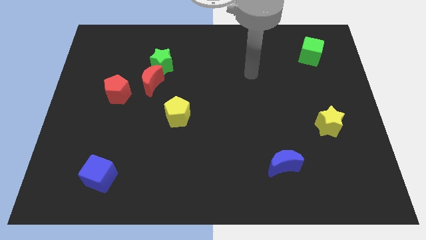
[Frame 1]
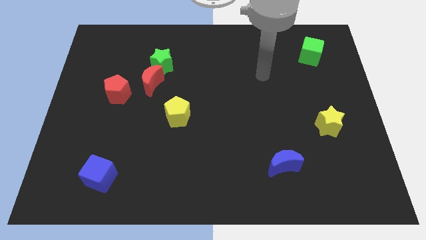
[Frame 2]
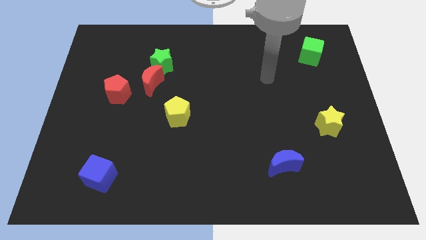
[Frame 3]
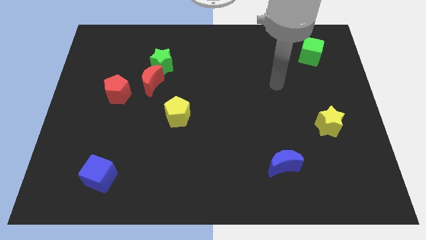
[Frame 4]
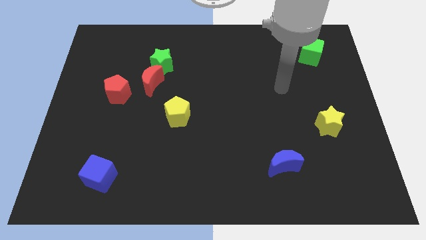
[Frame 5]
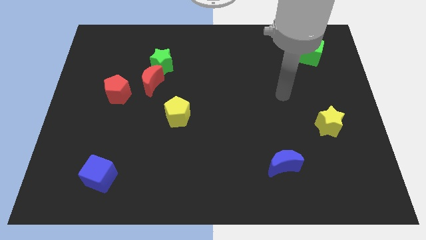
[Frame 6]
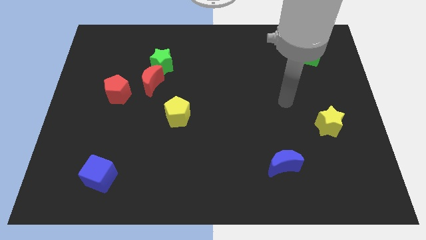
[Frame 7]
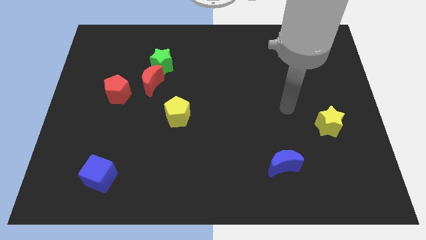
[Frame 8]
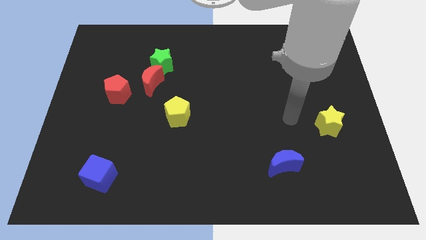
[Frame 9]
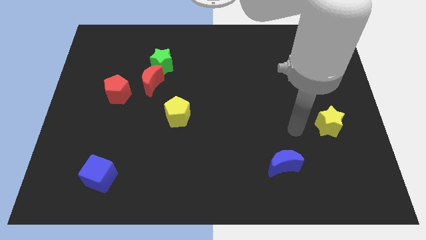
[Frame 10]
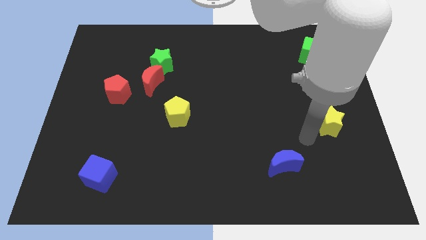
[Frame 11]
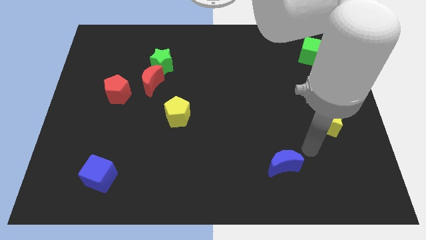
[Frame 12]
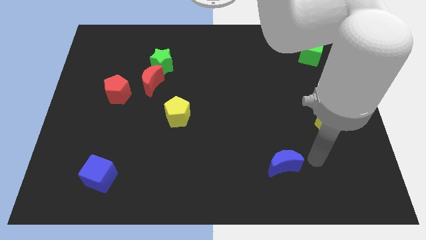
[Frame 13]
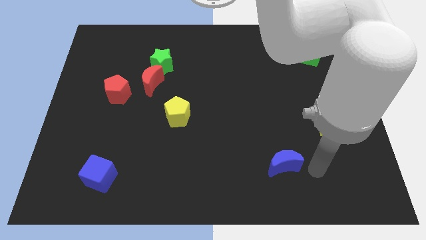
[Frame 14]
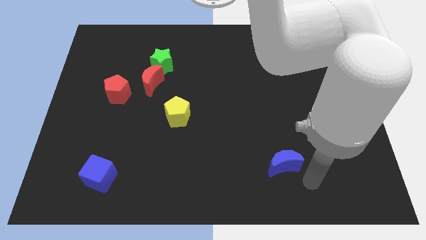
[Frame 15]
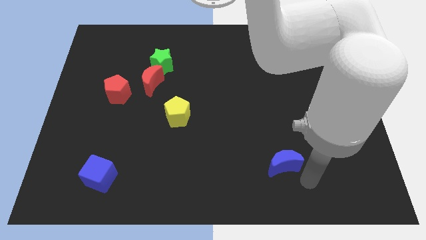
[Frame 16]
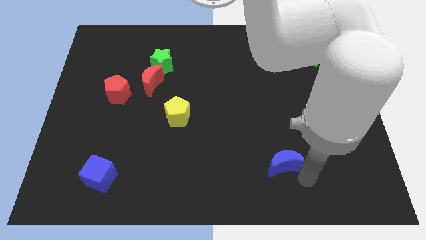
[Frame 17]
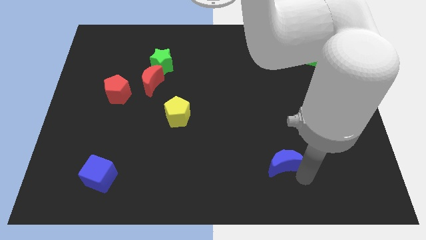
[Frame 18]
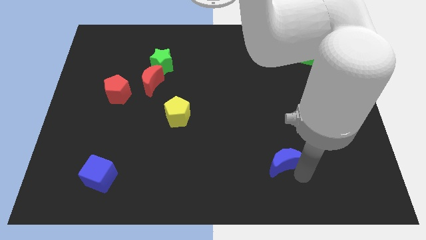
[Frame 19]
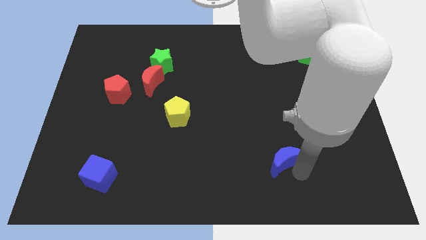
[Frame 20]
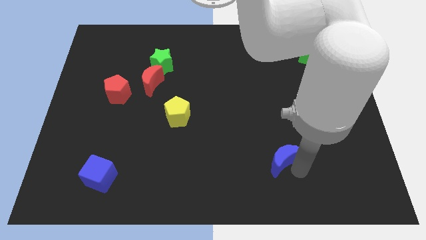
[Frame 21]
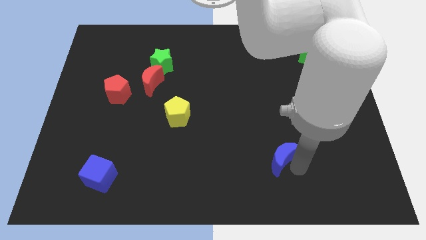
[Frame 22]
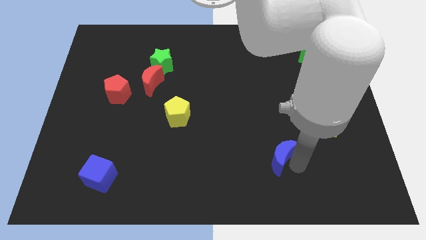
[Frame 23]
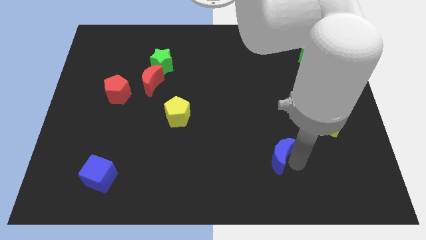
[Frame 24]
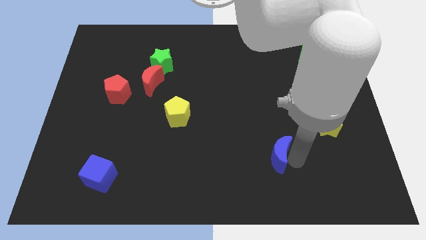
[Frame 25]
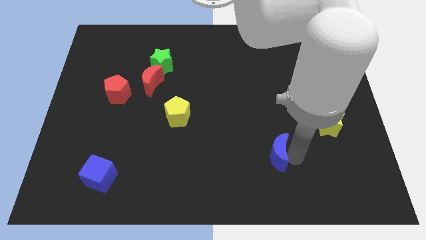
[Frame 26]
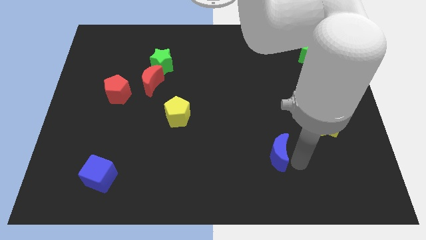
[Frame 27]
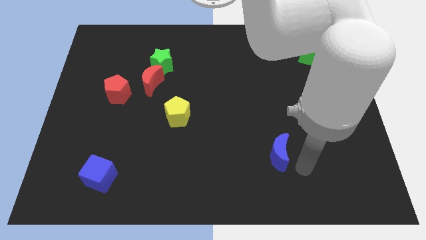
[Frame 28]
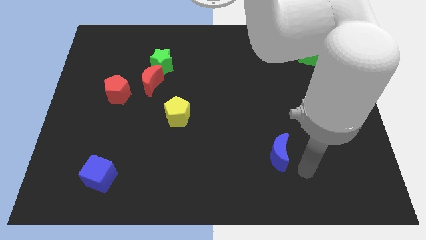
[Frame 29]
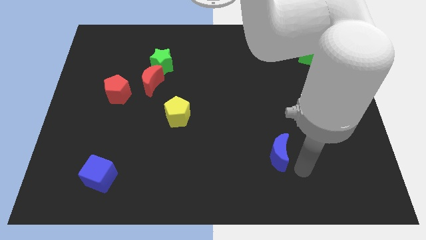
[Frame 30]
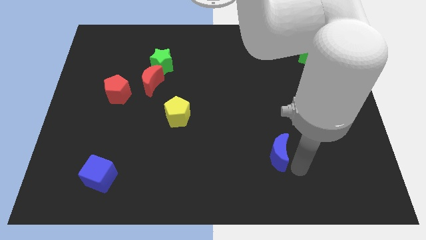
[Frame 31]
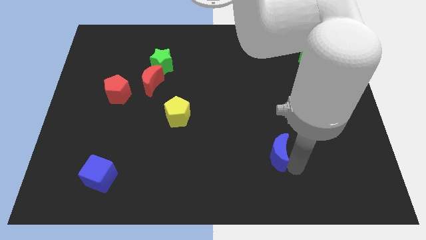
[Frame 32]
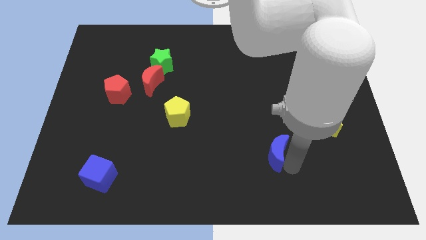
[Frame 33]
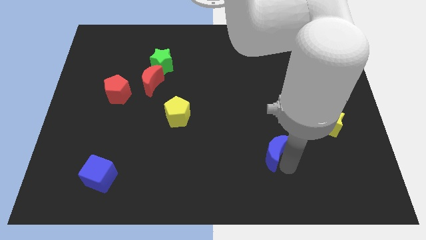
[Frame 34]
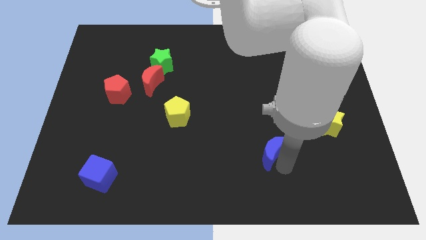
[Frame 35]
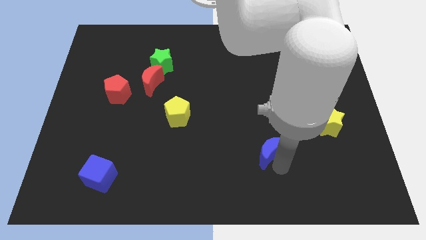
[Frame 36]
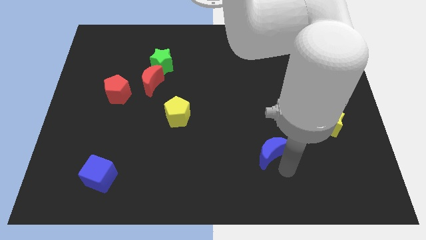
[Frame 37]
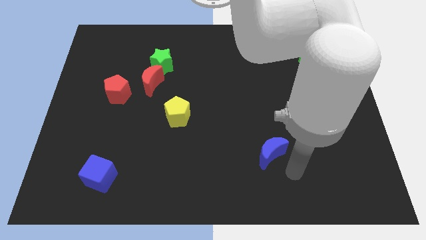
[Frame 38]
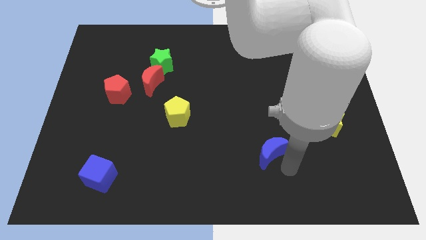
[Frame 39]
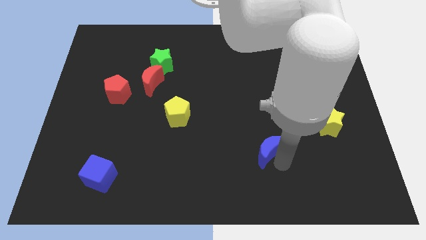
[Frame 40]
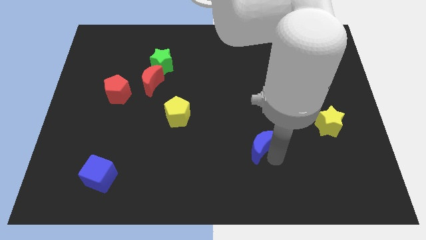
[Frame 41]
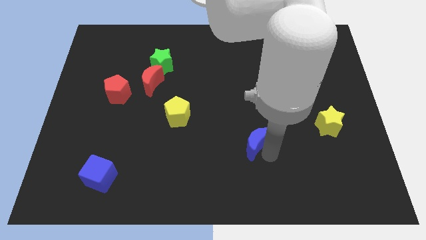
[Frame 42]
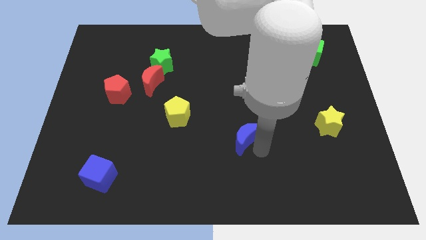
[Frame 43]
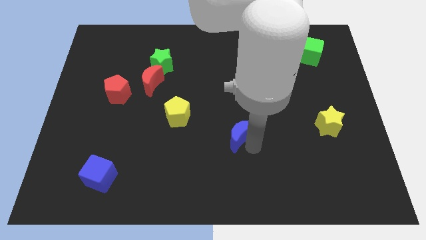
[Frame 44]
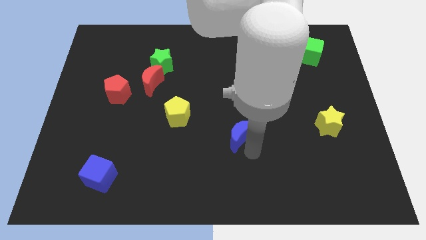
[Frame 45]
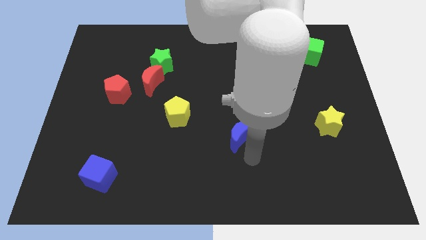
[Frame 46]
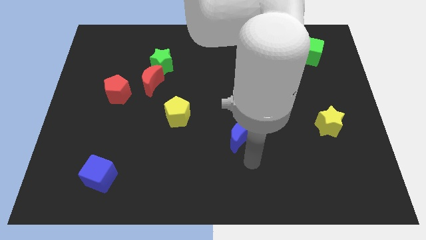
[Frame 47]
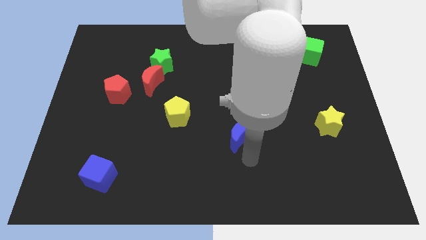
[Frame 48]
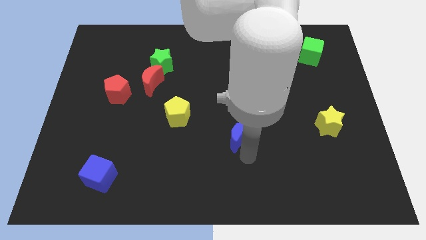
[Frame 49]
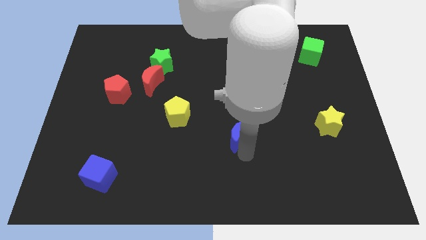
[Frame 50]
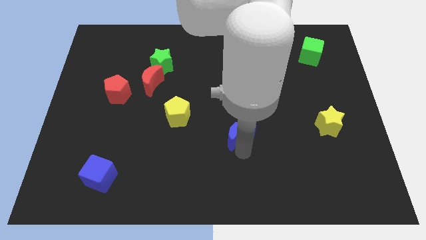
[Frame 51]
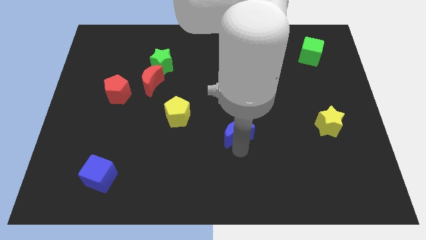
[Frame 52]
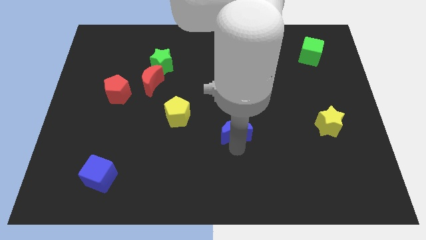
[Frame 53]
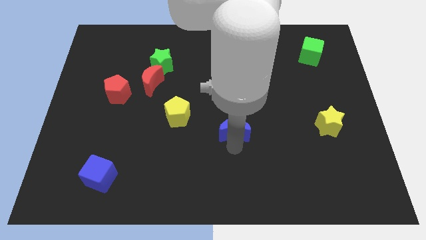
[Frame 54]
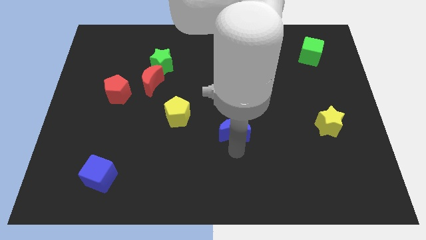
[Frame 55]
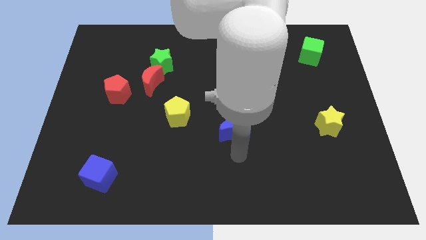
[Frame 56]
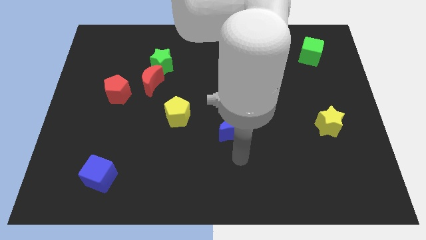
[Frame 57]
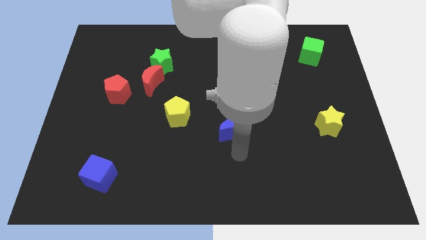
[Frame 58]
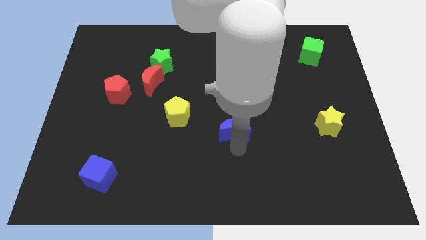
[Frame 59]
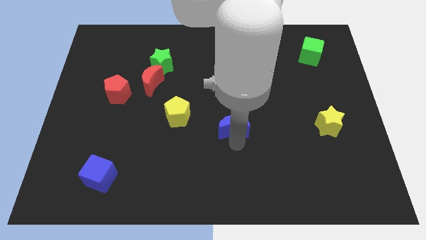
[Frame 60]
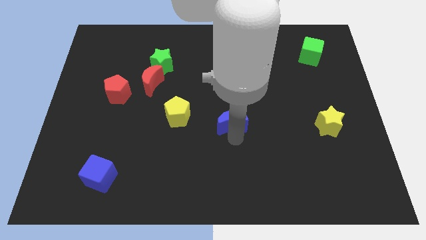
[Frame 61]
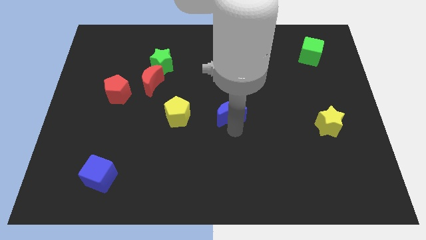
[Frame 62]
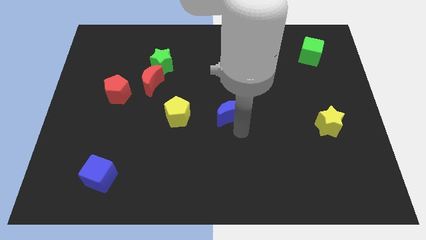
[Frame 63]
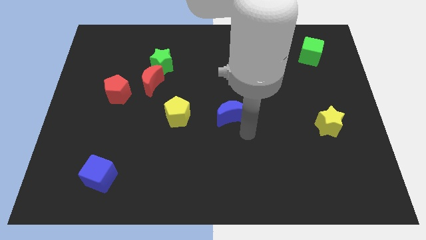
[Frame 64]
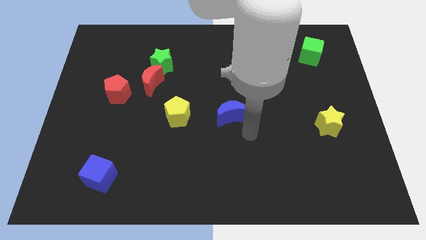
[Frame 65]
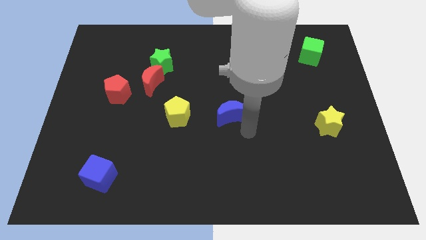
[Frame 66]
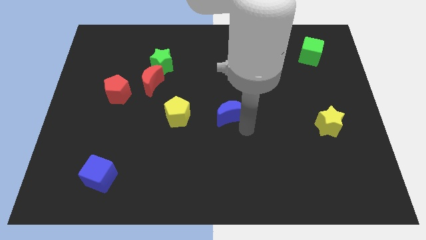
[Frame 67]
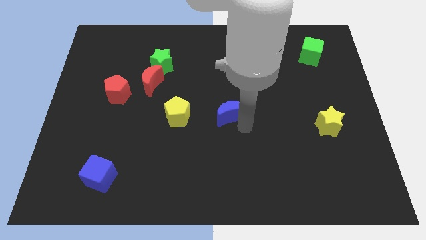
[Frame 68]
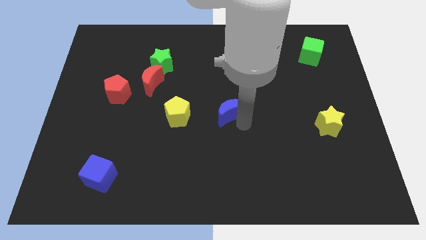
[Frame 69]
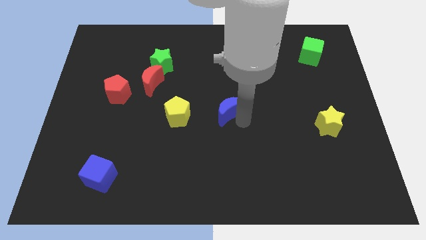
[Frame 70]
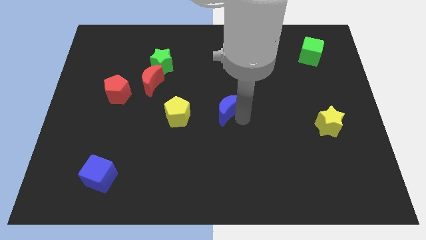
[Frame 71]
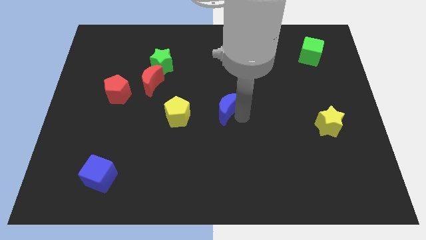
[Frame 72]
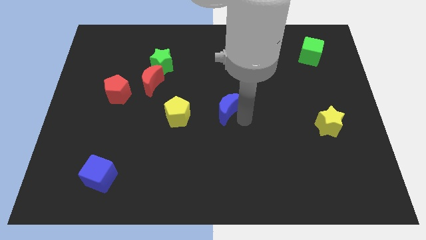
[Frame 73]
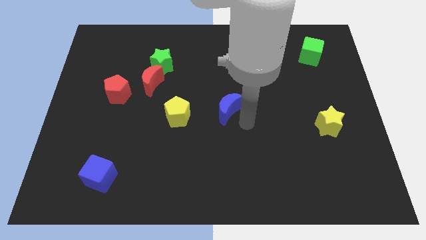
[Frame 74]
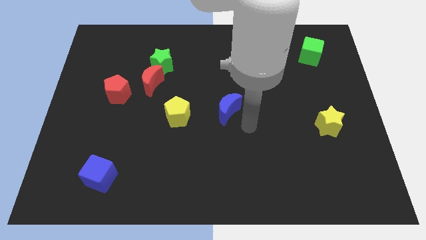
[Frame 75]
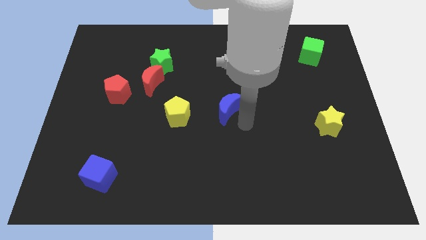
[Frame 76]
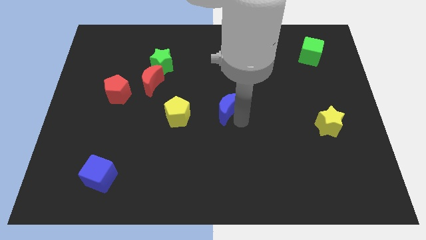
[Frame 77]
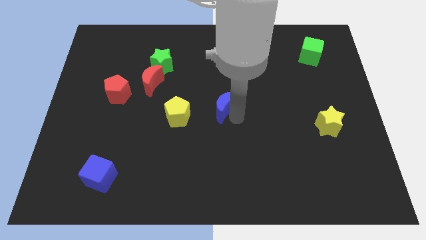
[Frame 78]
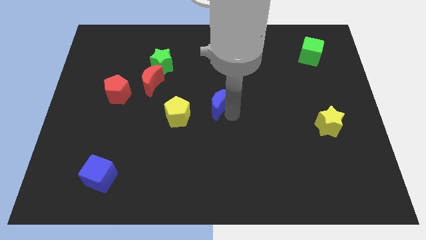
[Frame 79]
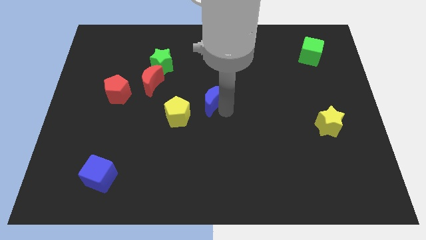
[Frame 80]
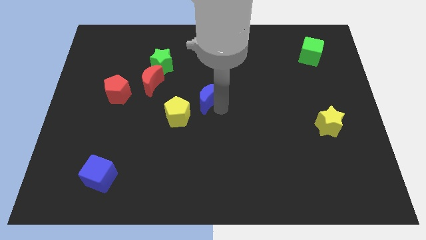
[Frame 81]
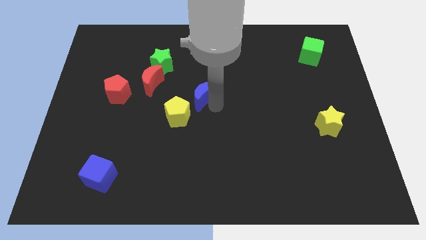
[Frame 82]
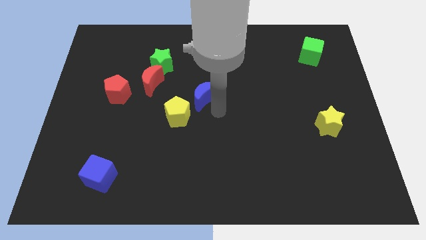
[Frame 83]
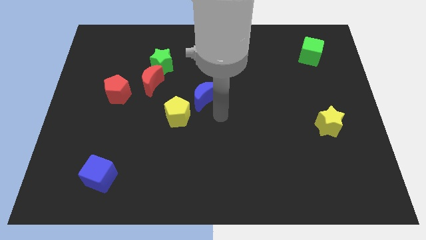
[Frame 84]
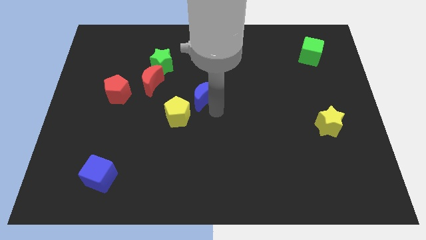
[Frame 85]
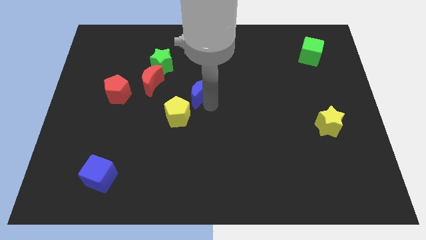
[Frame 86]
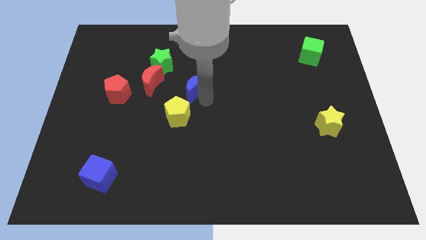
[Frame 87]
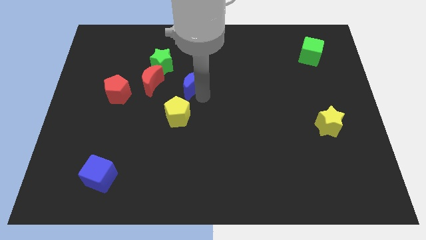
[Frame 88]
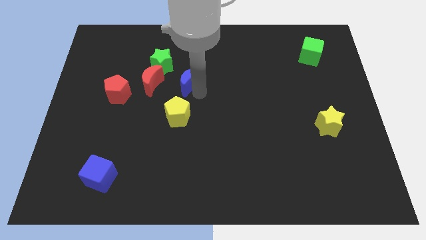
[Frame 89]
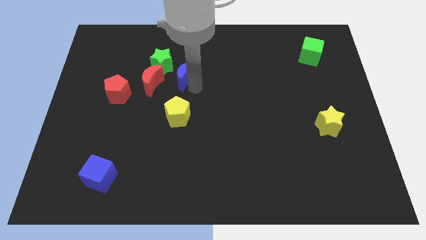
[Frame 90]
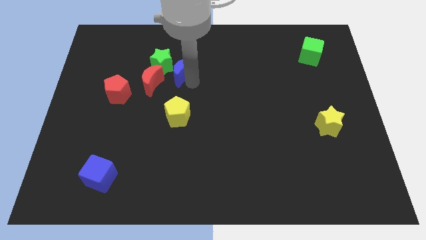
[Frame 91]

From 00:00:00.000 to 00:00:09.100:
push the blue moon to the green star
